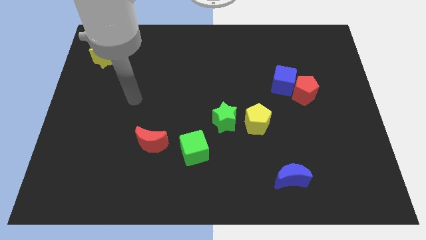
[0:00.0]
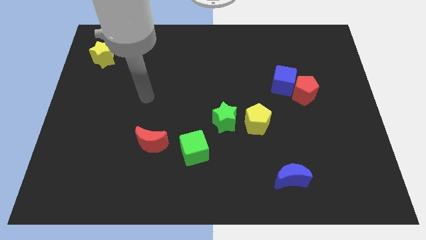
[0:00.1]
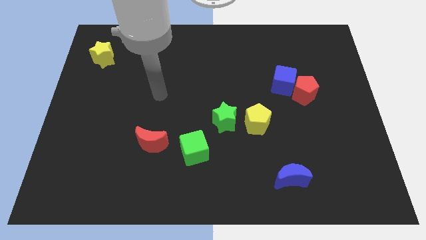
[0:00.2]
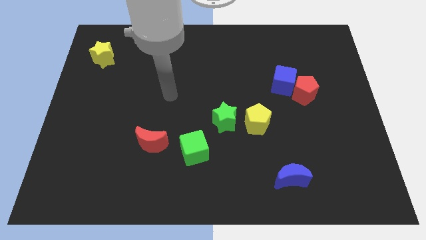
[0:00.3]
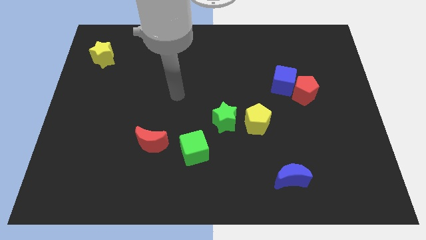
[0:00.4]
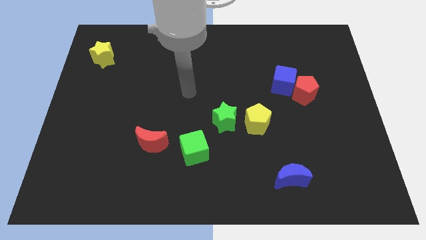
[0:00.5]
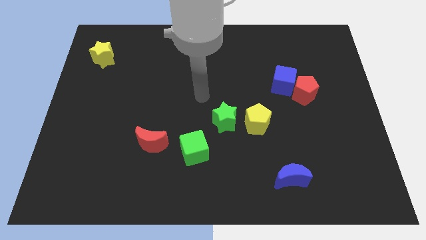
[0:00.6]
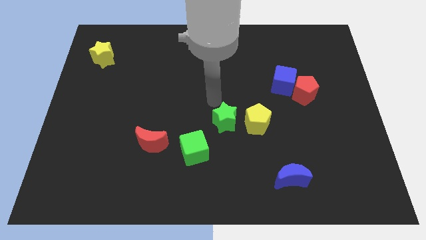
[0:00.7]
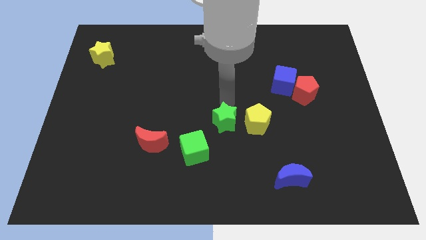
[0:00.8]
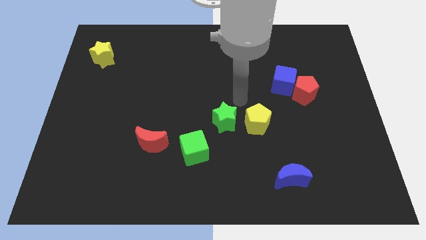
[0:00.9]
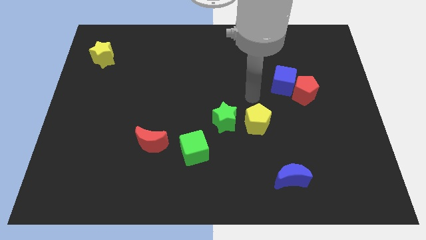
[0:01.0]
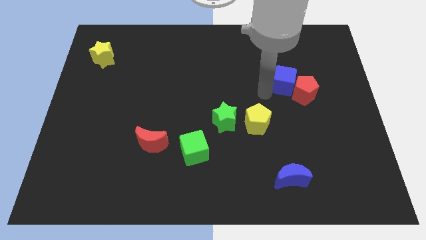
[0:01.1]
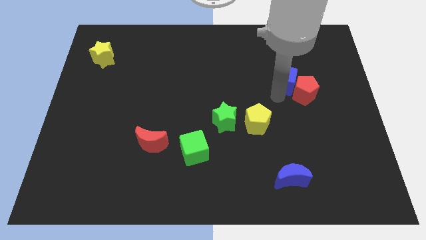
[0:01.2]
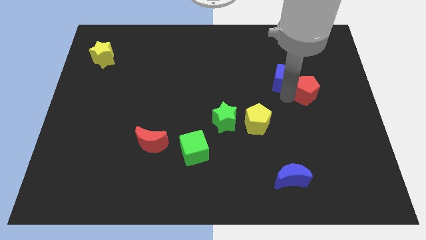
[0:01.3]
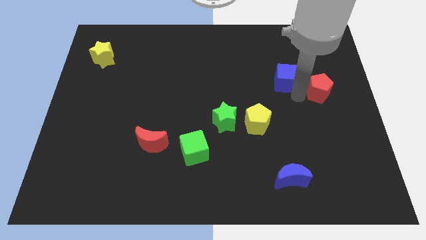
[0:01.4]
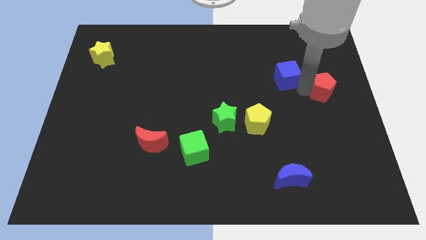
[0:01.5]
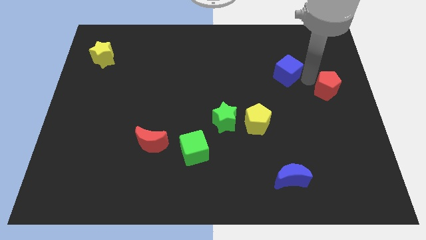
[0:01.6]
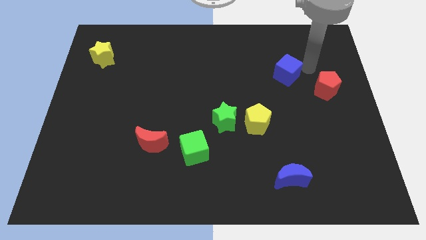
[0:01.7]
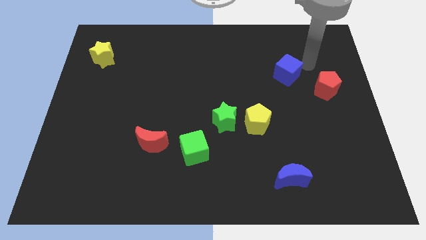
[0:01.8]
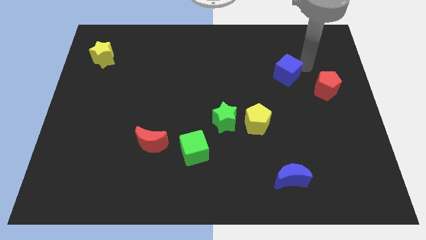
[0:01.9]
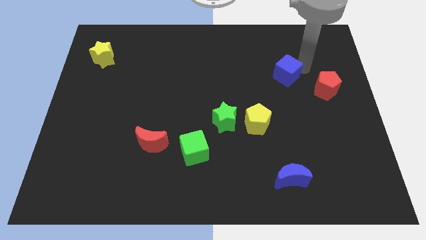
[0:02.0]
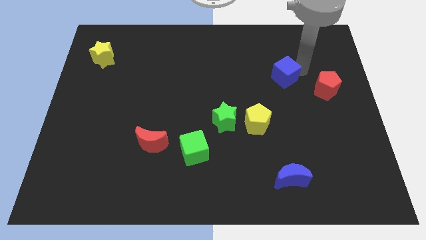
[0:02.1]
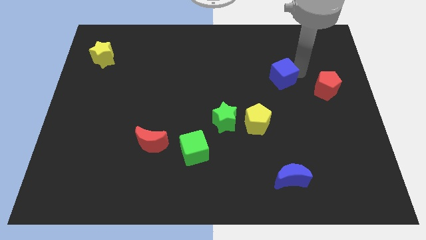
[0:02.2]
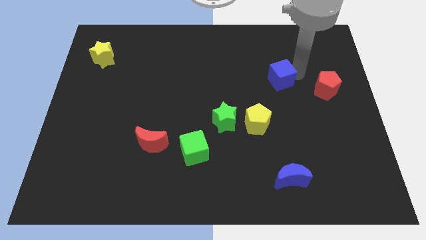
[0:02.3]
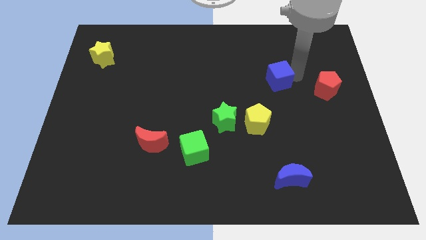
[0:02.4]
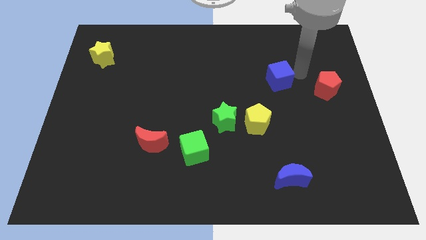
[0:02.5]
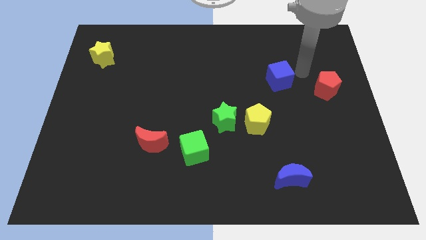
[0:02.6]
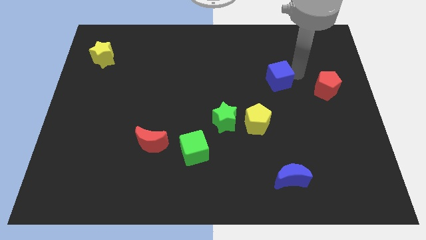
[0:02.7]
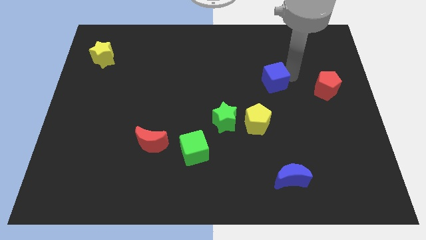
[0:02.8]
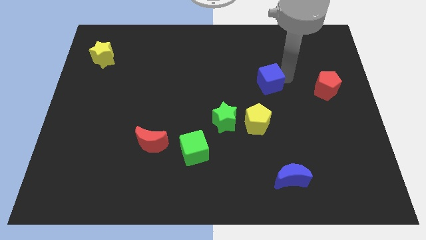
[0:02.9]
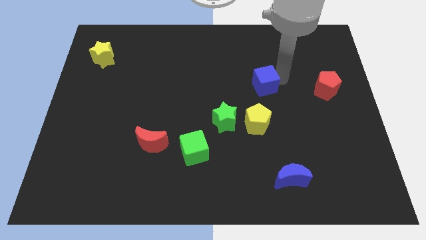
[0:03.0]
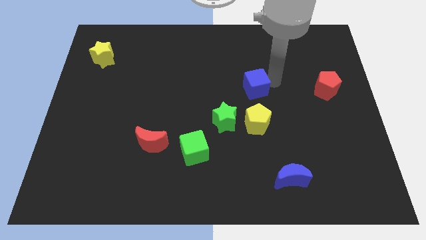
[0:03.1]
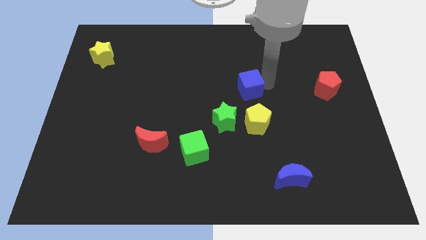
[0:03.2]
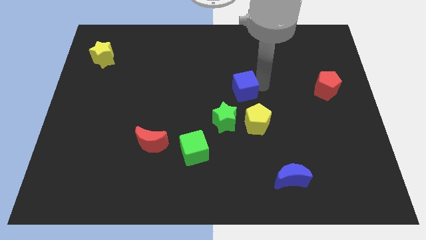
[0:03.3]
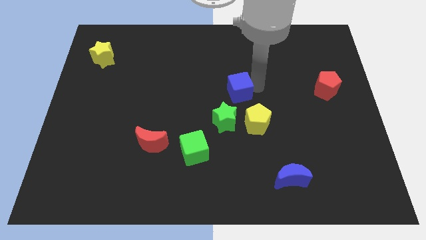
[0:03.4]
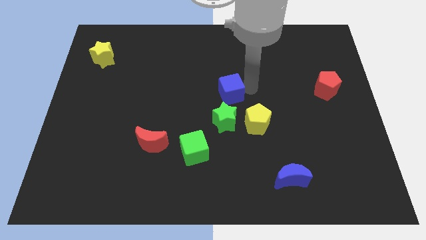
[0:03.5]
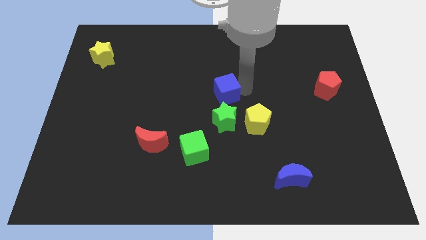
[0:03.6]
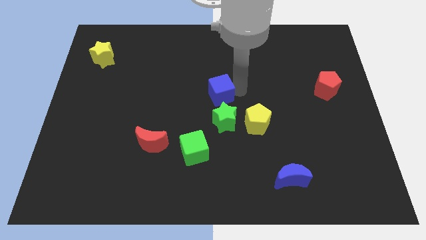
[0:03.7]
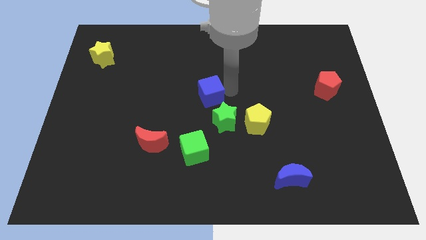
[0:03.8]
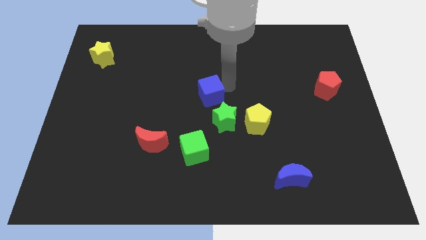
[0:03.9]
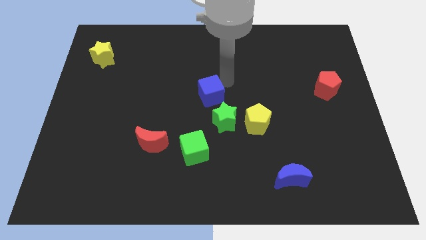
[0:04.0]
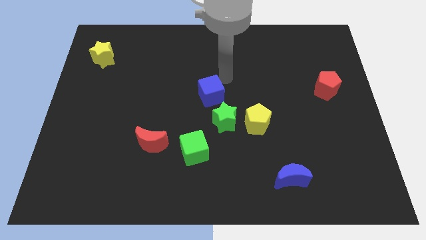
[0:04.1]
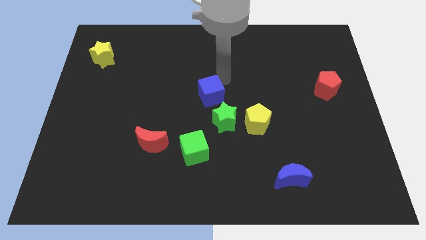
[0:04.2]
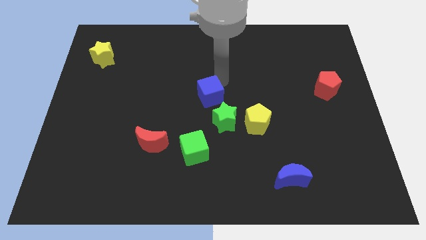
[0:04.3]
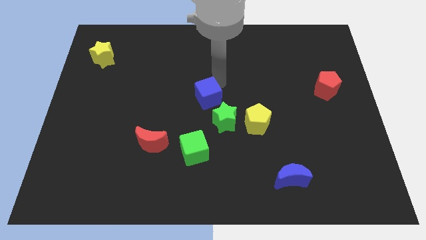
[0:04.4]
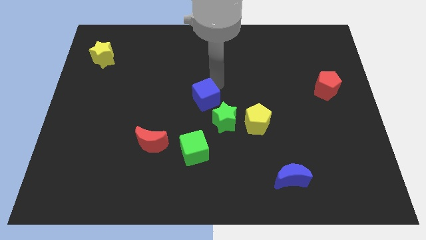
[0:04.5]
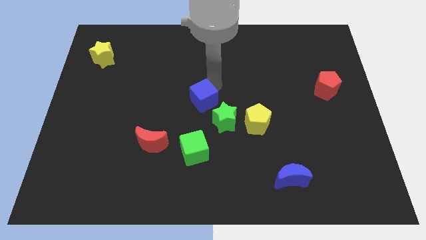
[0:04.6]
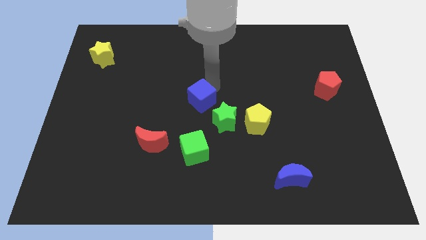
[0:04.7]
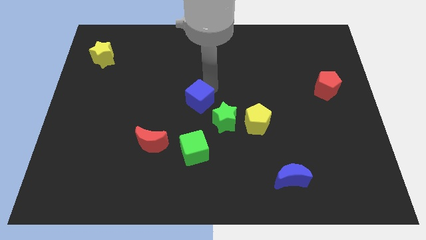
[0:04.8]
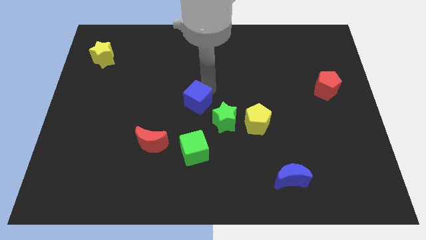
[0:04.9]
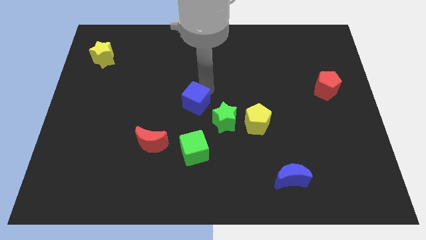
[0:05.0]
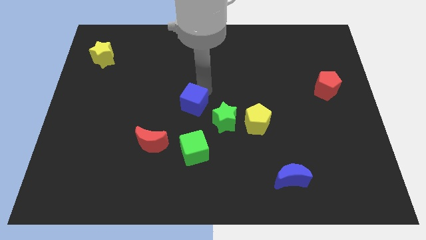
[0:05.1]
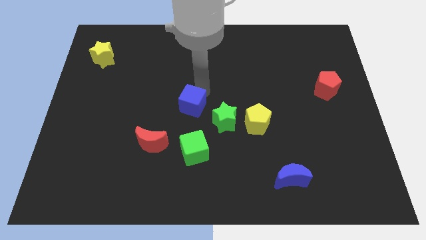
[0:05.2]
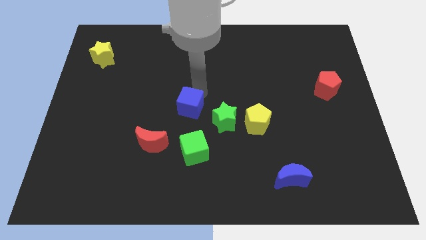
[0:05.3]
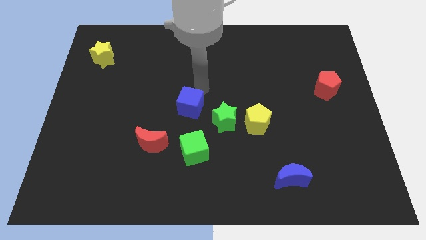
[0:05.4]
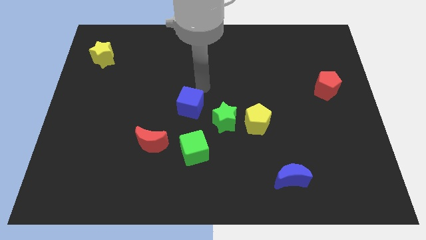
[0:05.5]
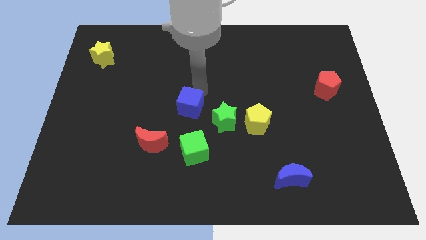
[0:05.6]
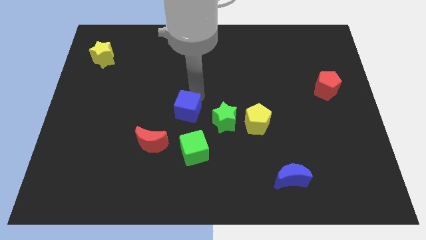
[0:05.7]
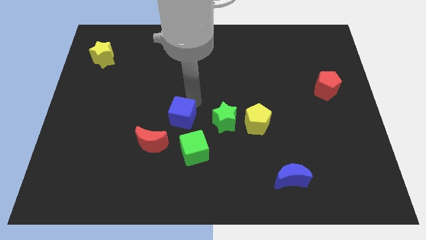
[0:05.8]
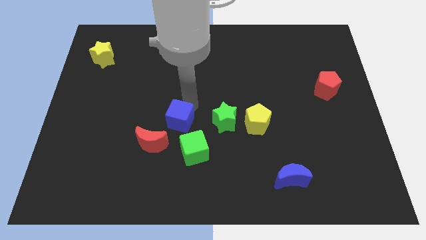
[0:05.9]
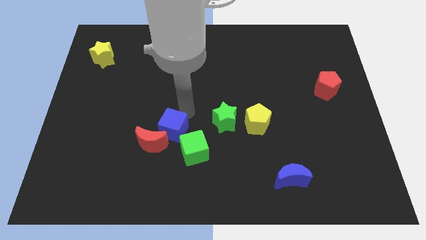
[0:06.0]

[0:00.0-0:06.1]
move the blue cube close to the red moon

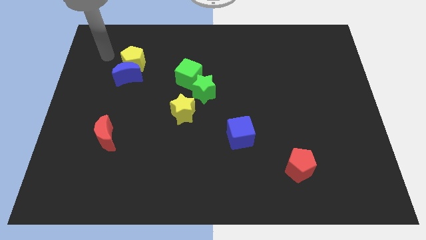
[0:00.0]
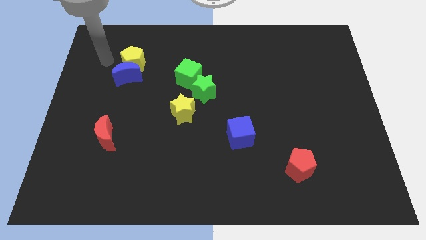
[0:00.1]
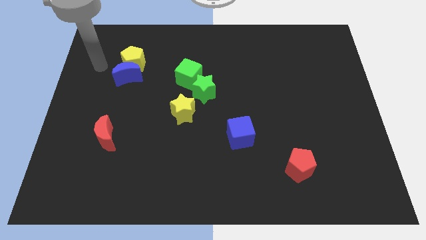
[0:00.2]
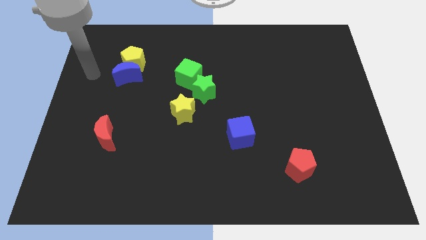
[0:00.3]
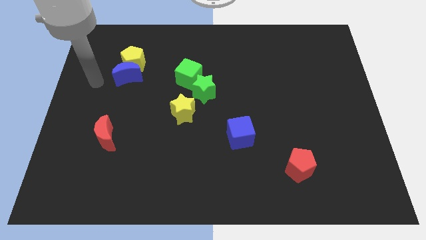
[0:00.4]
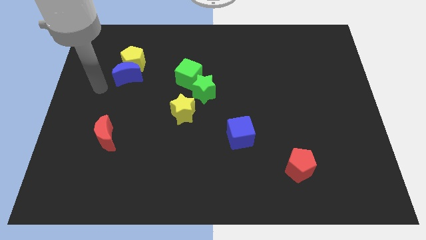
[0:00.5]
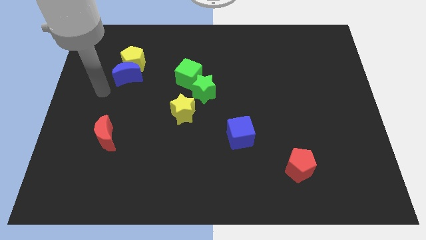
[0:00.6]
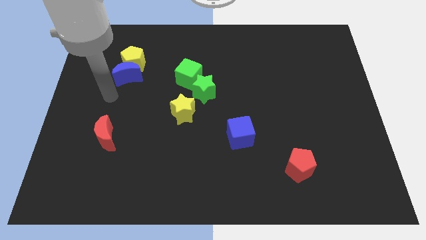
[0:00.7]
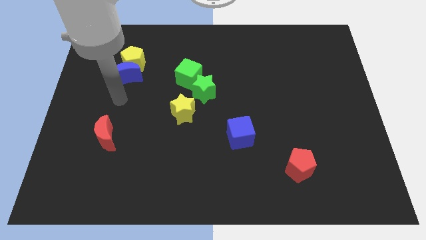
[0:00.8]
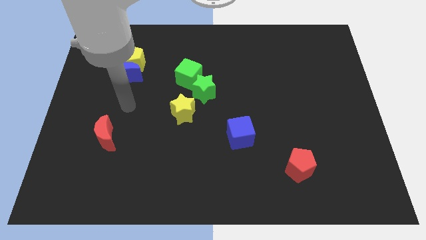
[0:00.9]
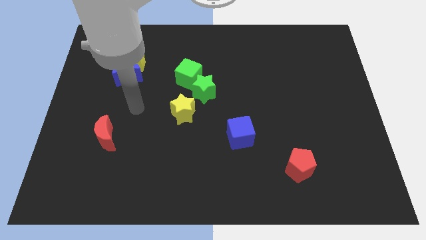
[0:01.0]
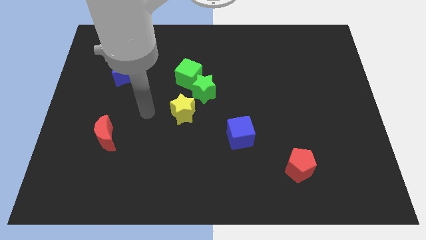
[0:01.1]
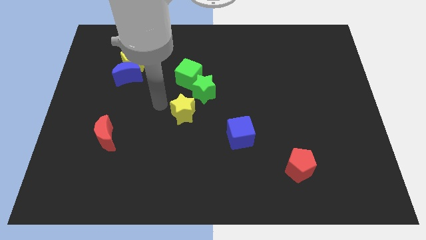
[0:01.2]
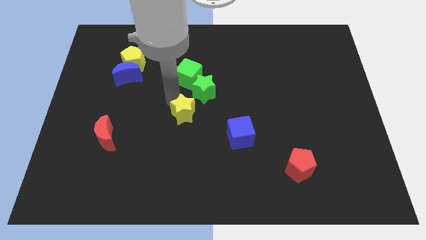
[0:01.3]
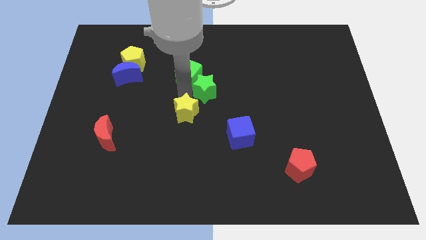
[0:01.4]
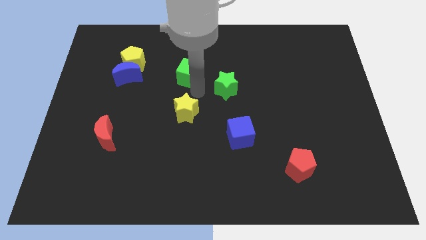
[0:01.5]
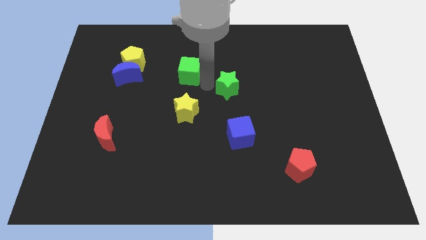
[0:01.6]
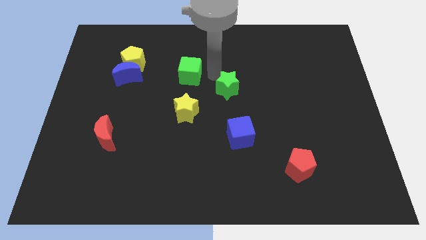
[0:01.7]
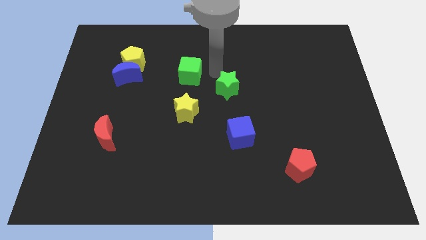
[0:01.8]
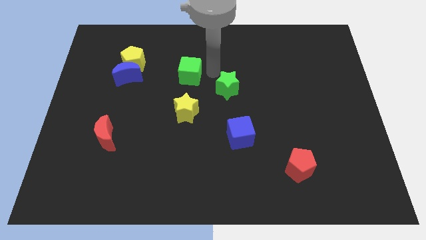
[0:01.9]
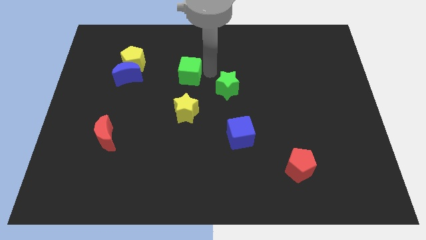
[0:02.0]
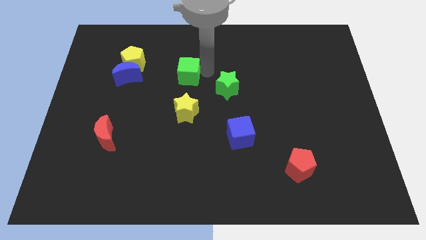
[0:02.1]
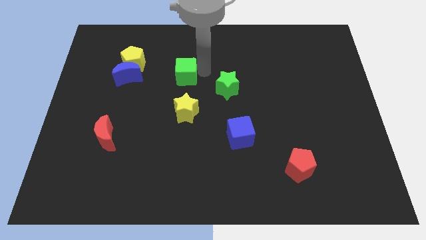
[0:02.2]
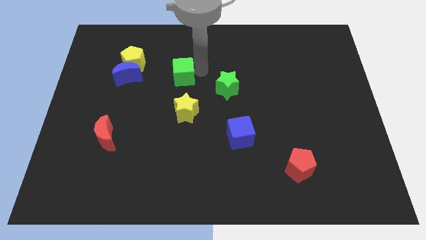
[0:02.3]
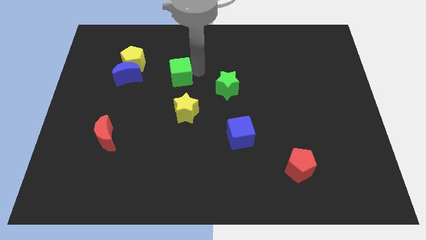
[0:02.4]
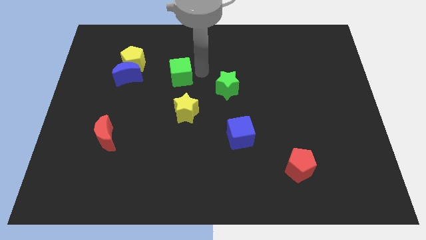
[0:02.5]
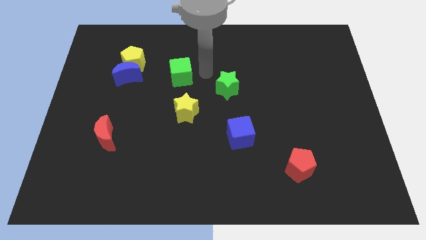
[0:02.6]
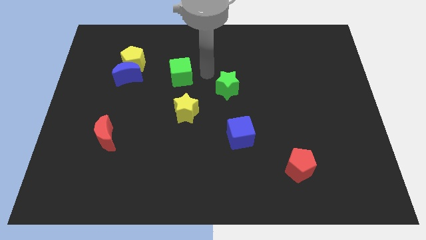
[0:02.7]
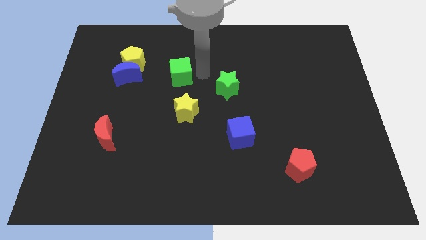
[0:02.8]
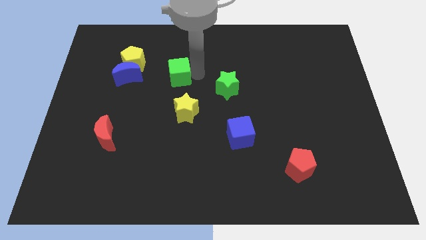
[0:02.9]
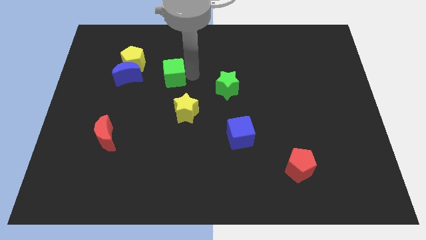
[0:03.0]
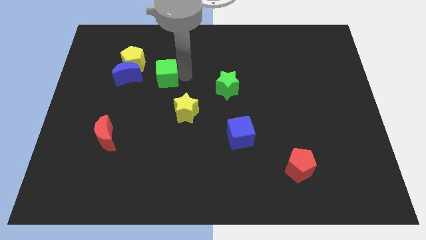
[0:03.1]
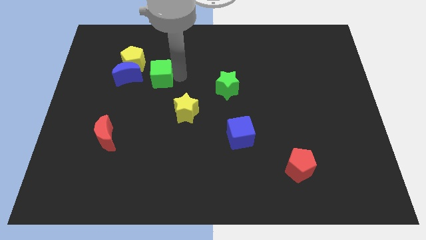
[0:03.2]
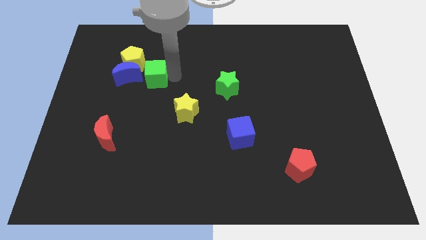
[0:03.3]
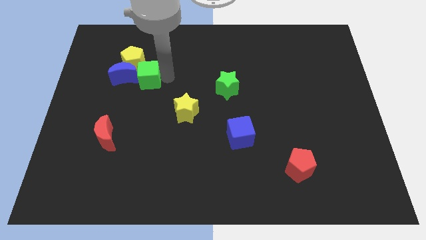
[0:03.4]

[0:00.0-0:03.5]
move the green cube close to the blue moon
